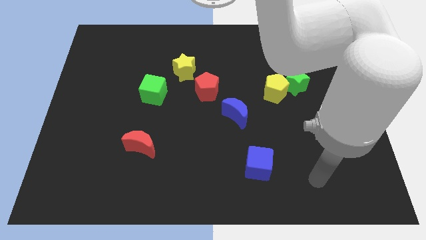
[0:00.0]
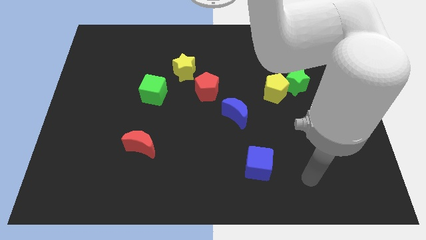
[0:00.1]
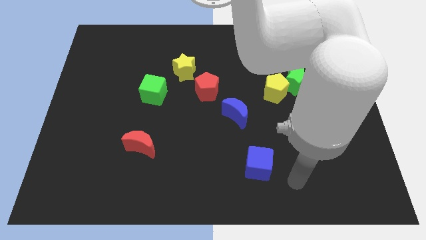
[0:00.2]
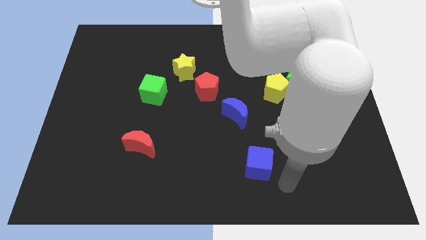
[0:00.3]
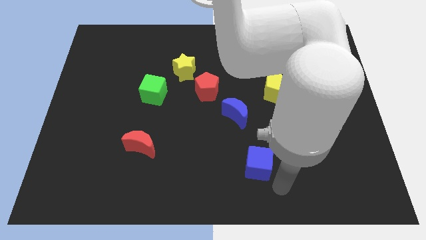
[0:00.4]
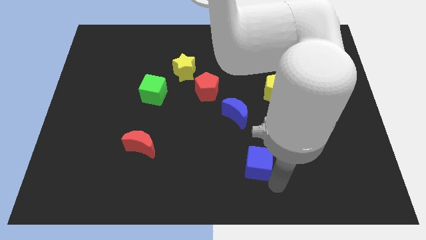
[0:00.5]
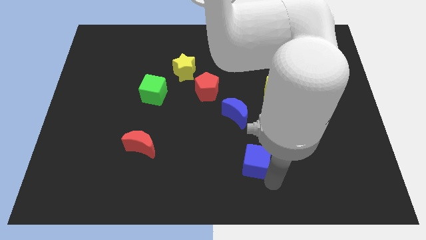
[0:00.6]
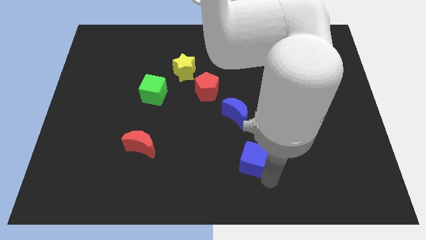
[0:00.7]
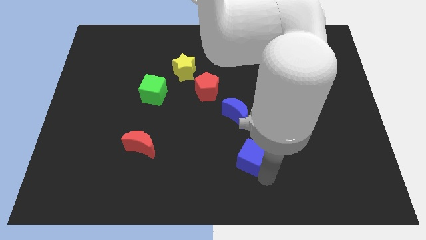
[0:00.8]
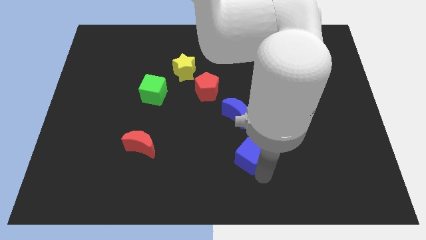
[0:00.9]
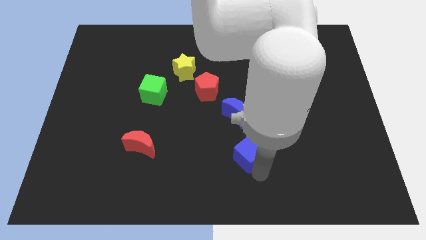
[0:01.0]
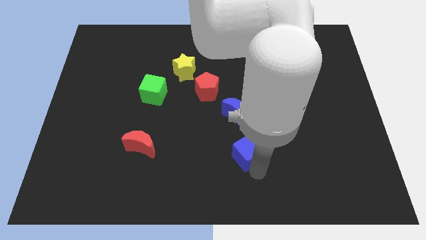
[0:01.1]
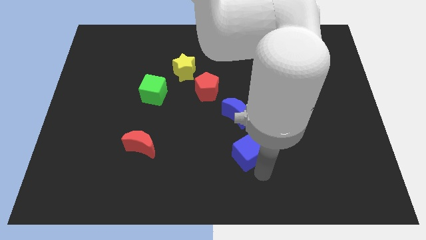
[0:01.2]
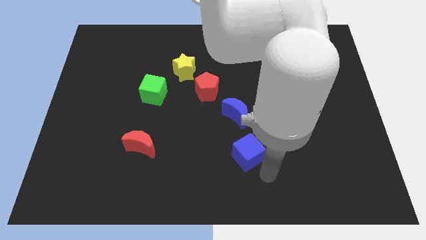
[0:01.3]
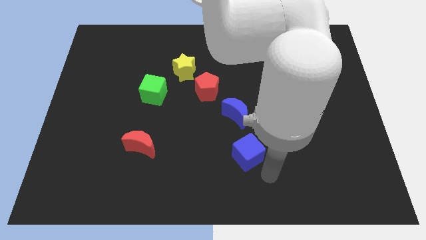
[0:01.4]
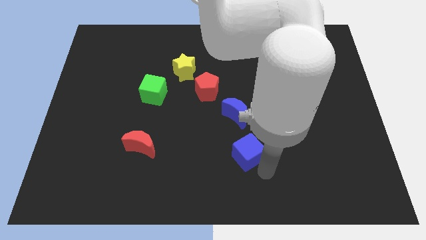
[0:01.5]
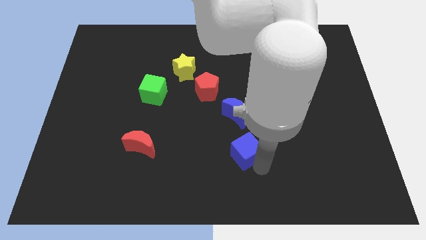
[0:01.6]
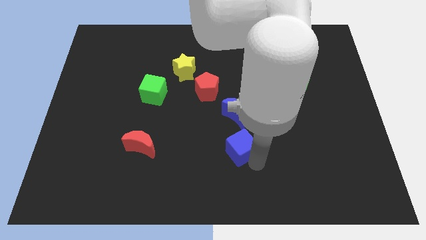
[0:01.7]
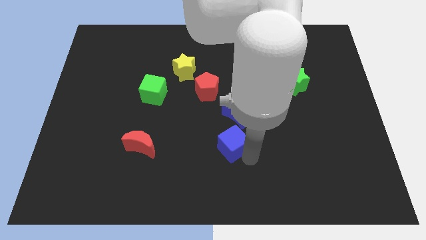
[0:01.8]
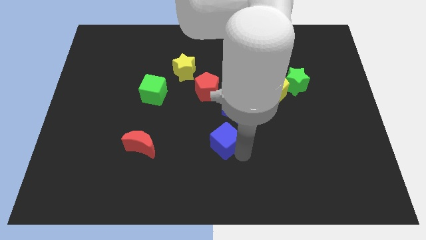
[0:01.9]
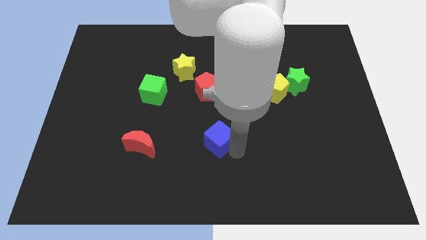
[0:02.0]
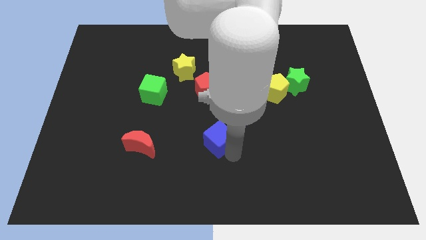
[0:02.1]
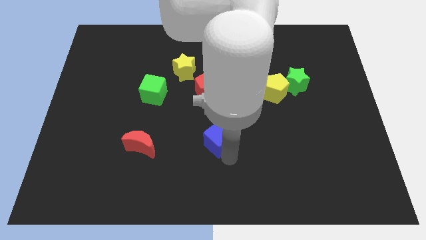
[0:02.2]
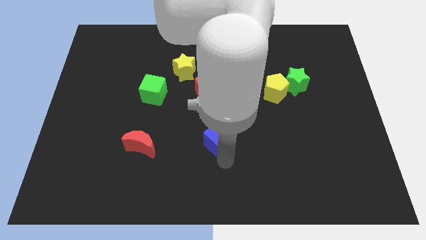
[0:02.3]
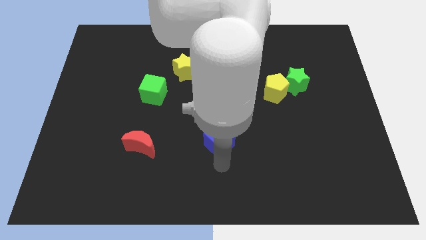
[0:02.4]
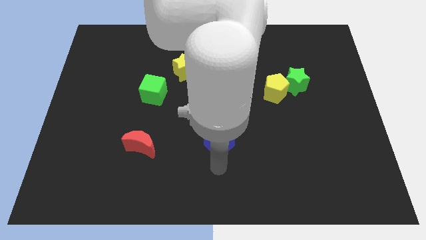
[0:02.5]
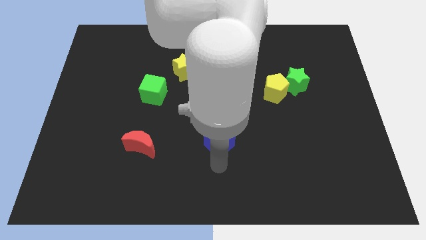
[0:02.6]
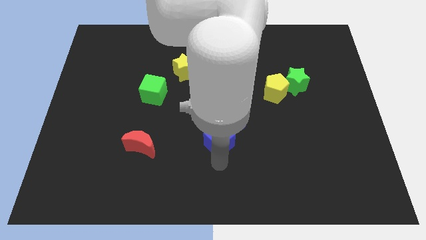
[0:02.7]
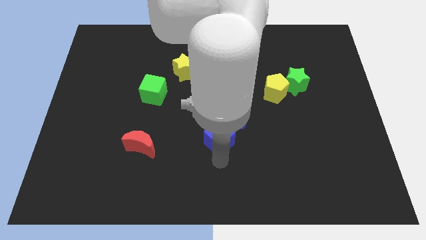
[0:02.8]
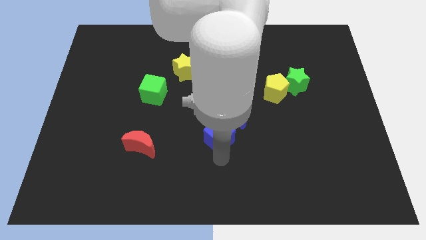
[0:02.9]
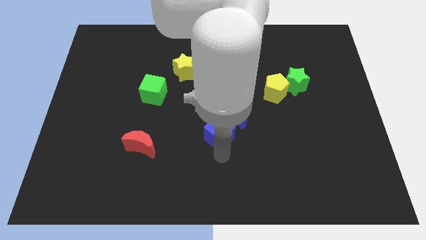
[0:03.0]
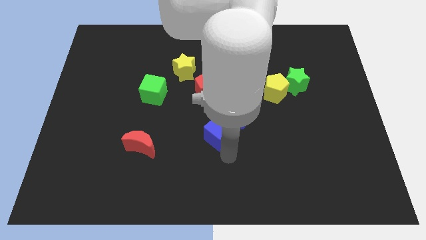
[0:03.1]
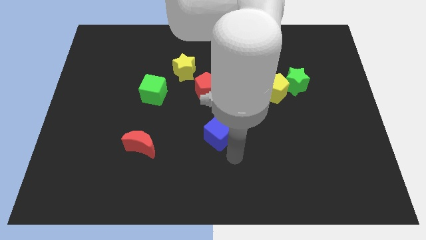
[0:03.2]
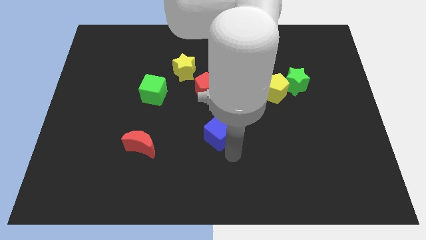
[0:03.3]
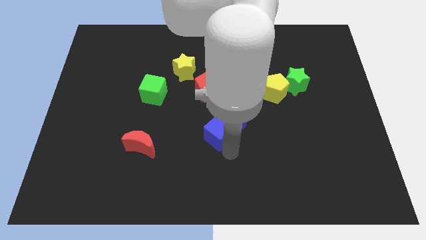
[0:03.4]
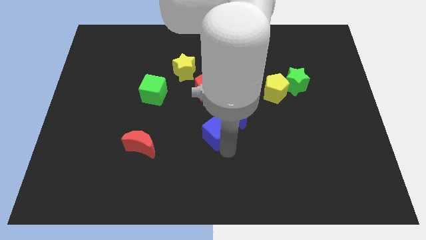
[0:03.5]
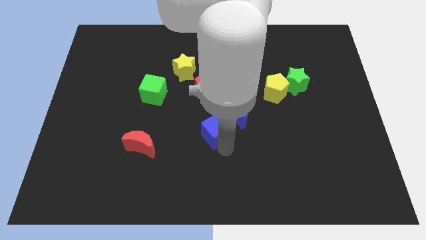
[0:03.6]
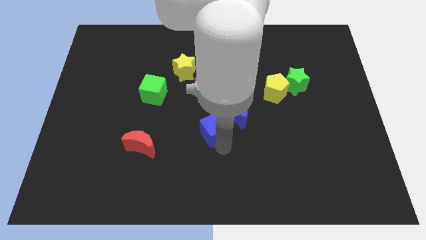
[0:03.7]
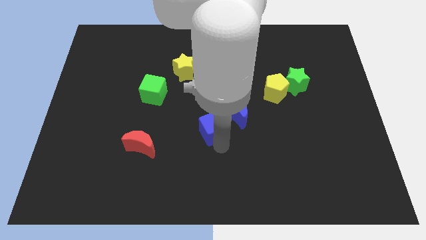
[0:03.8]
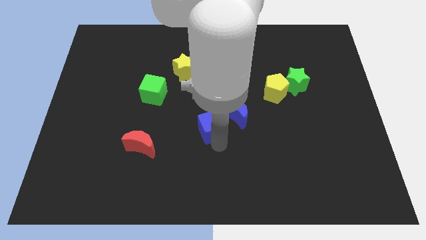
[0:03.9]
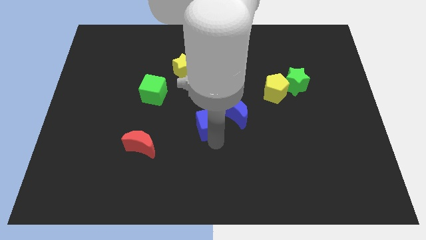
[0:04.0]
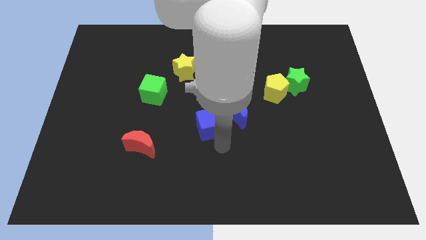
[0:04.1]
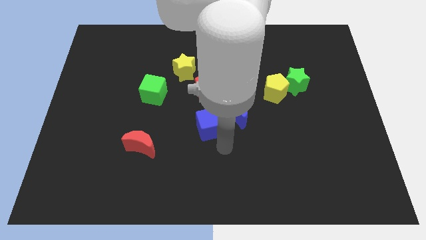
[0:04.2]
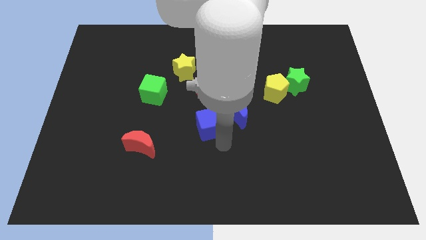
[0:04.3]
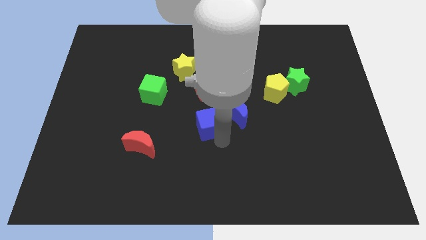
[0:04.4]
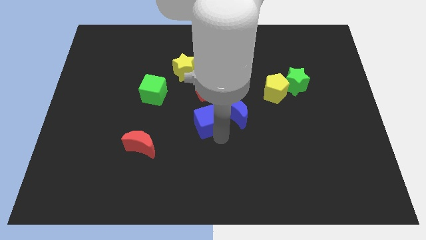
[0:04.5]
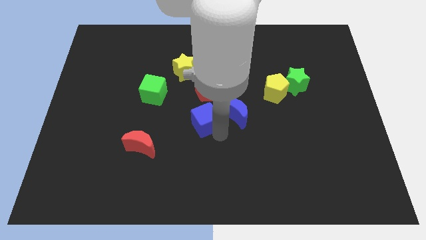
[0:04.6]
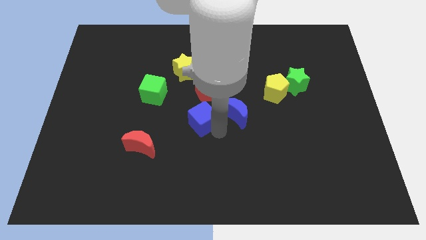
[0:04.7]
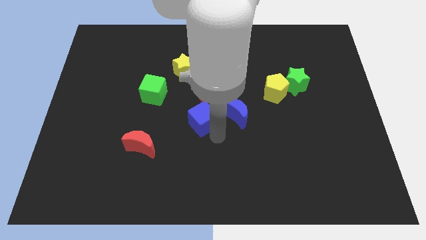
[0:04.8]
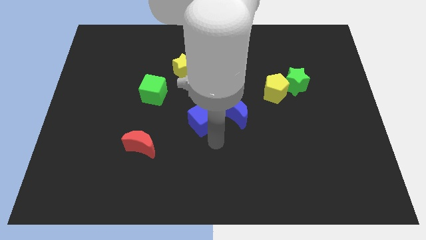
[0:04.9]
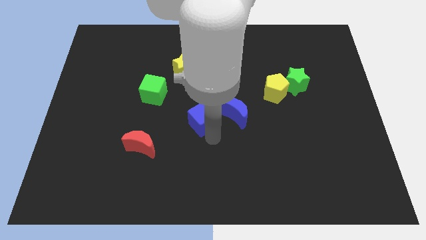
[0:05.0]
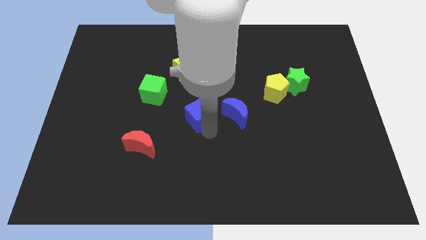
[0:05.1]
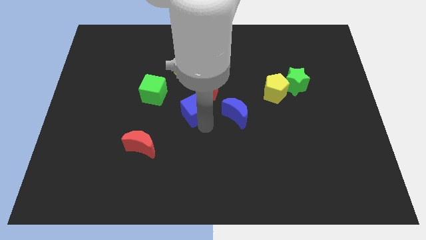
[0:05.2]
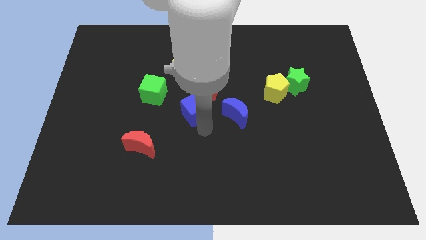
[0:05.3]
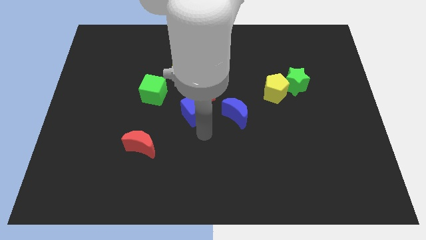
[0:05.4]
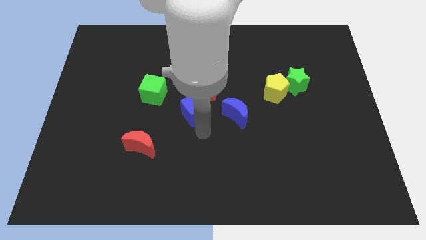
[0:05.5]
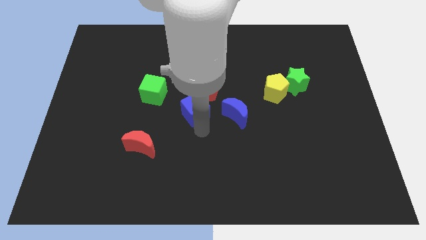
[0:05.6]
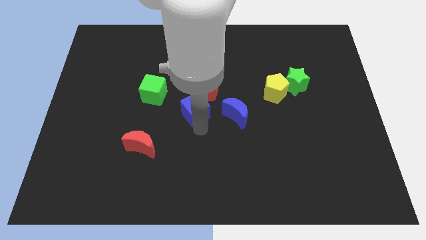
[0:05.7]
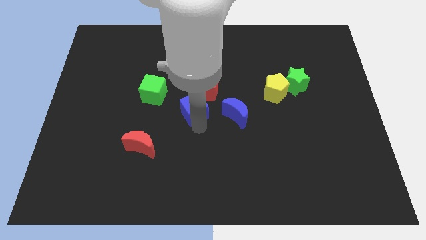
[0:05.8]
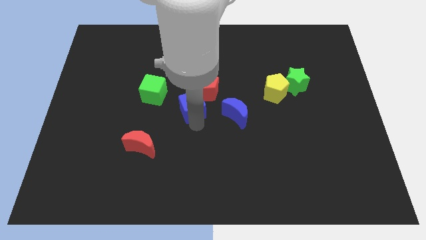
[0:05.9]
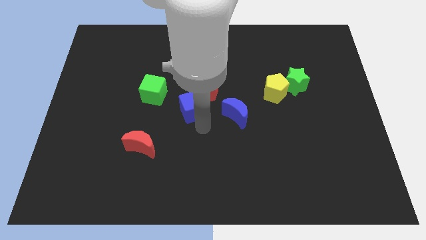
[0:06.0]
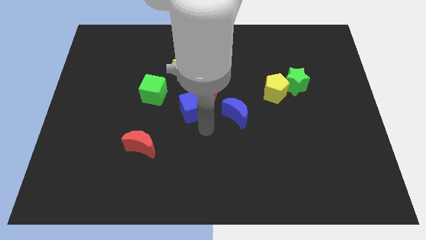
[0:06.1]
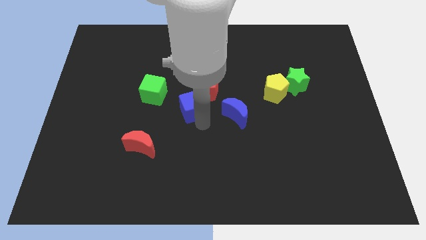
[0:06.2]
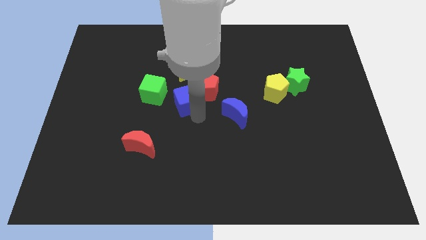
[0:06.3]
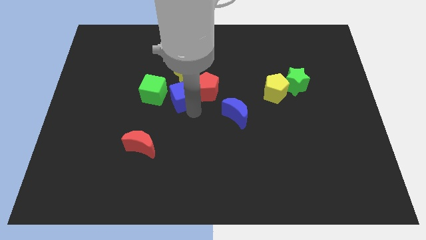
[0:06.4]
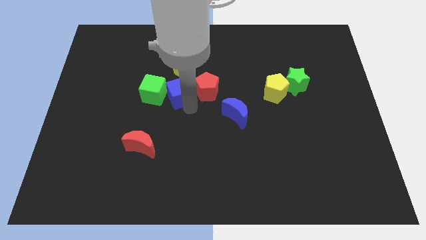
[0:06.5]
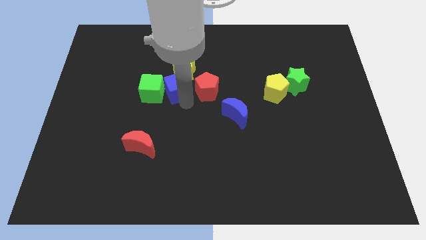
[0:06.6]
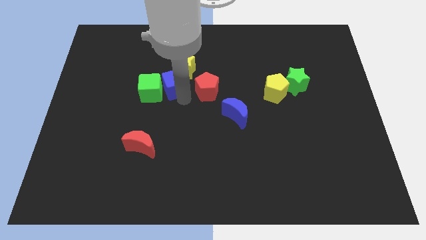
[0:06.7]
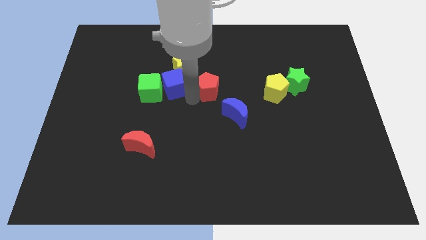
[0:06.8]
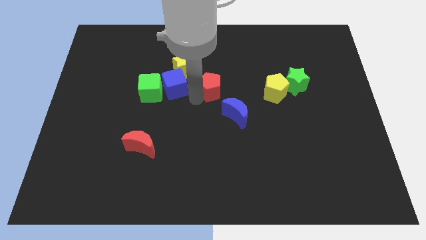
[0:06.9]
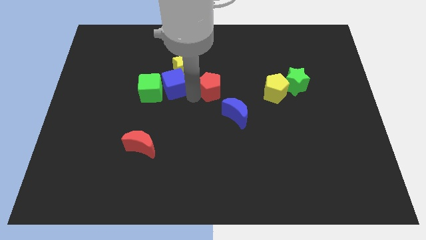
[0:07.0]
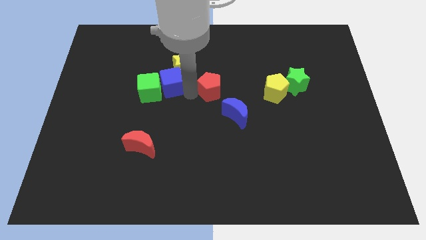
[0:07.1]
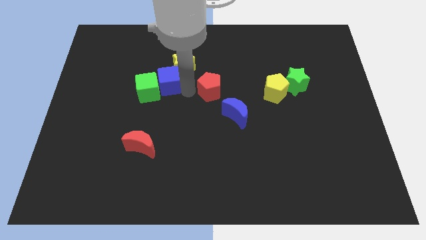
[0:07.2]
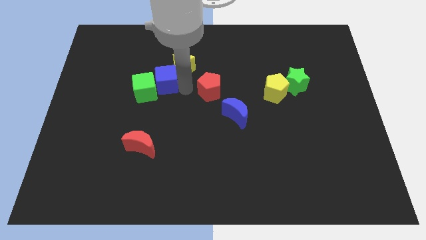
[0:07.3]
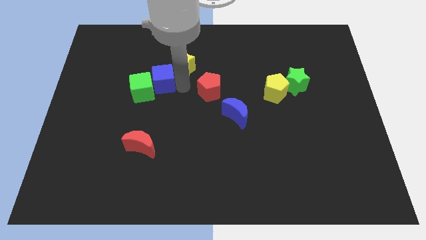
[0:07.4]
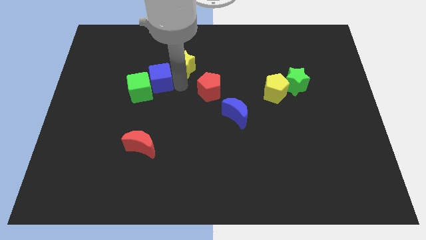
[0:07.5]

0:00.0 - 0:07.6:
push the blue cube just left of the yellow star
